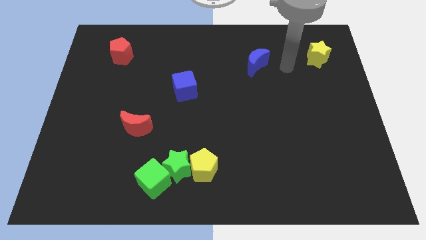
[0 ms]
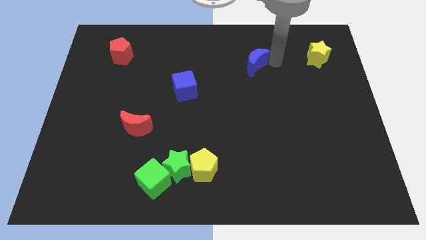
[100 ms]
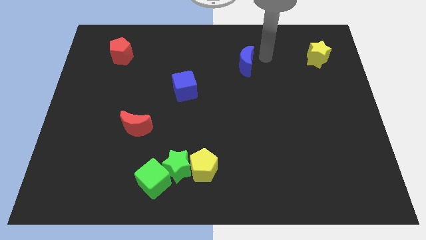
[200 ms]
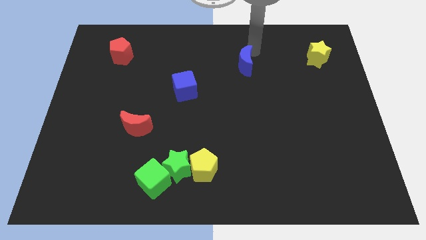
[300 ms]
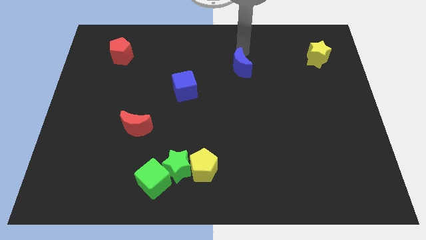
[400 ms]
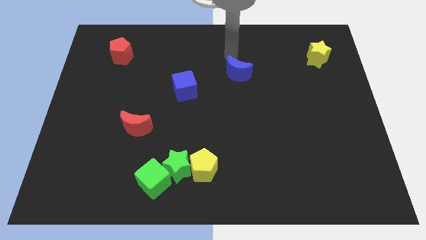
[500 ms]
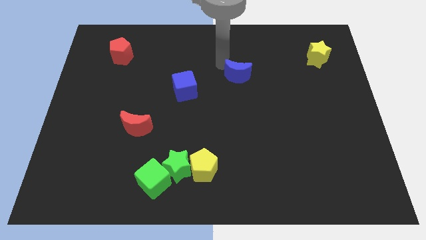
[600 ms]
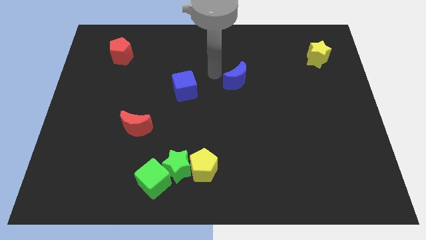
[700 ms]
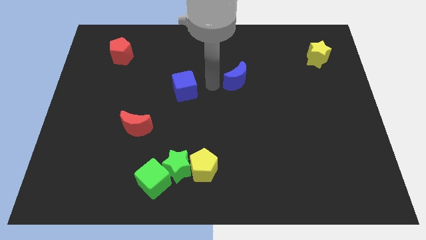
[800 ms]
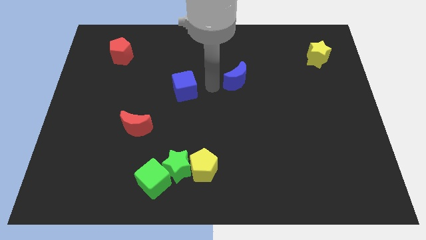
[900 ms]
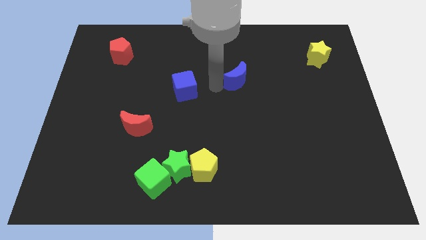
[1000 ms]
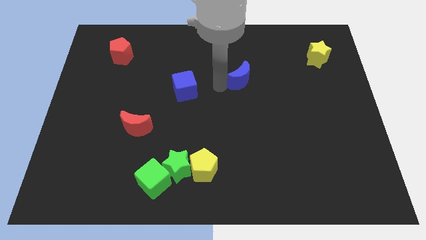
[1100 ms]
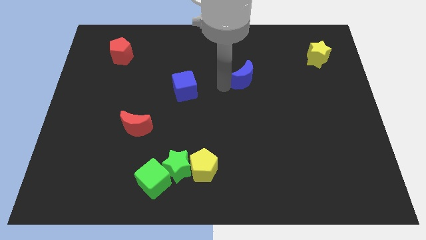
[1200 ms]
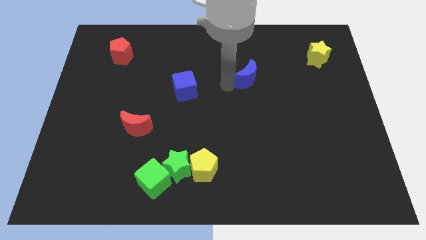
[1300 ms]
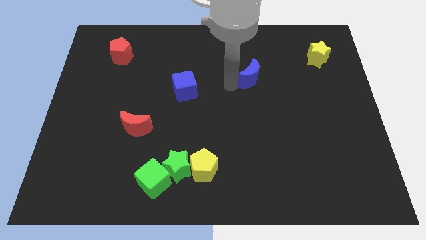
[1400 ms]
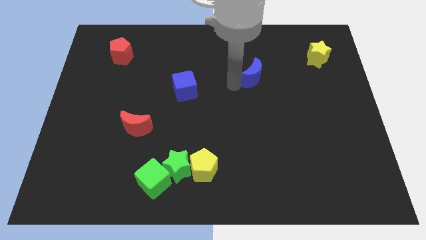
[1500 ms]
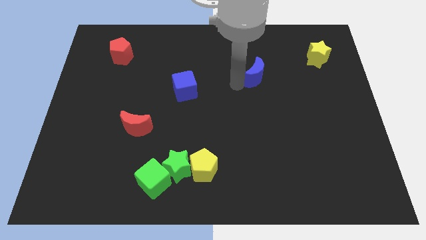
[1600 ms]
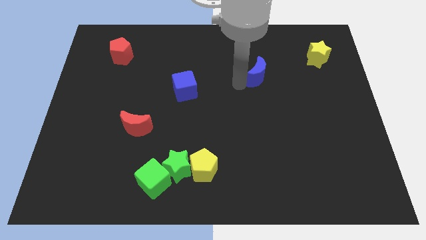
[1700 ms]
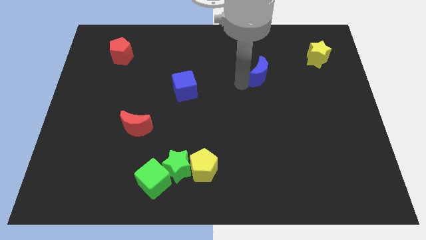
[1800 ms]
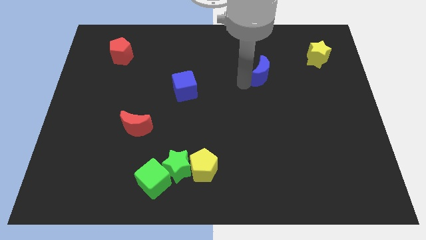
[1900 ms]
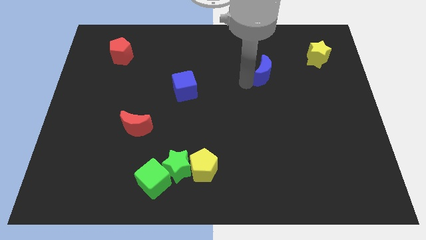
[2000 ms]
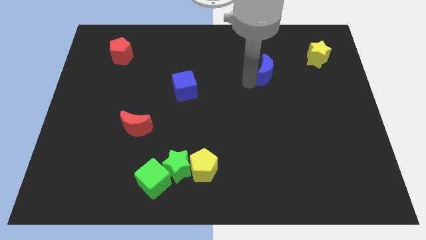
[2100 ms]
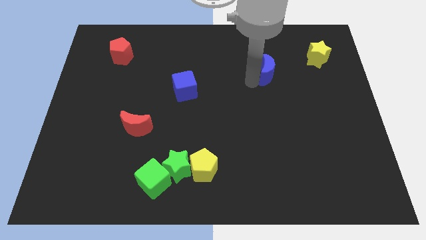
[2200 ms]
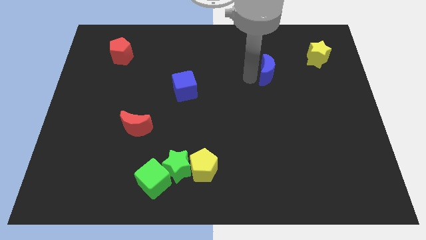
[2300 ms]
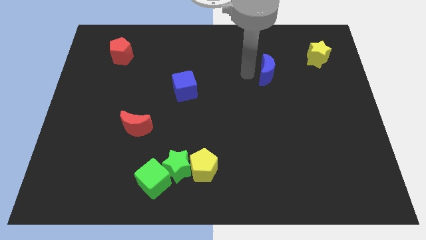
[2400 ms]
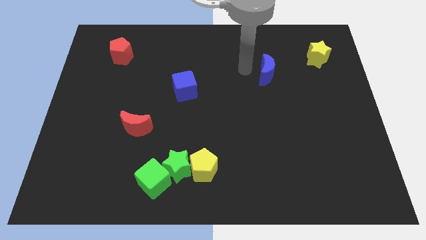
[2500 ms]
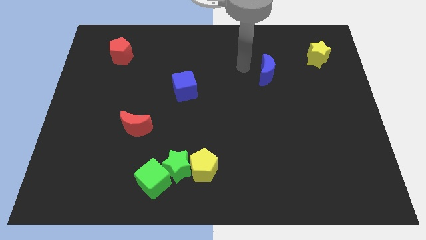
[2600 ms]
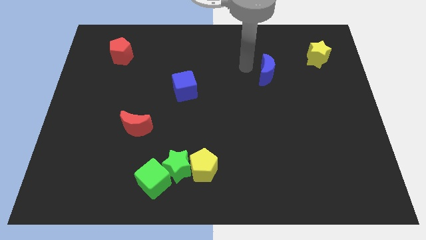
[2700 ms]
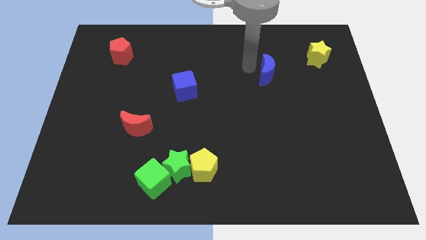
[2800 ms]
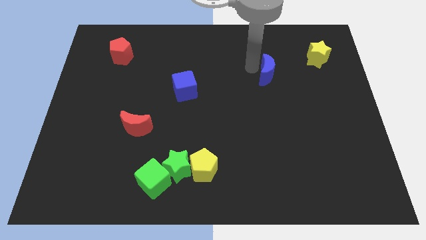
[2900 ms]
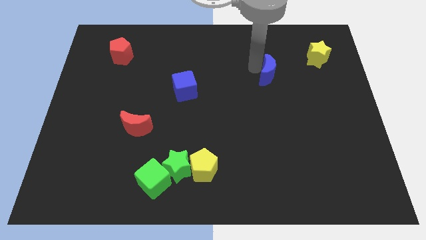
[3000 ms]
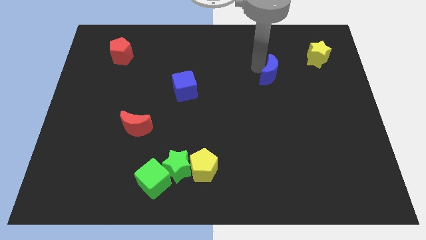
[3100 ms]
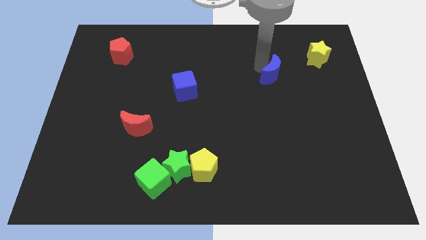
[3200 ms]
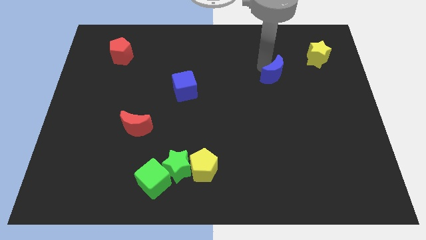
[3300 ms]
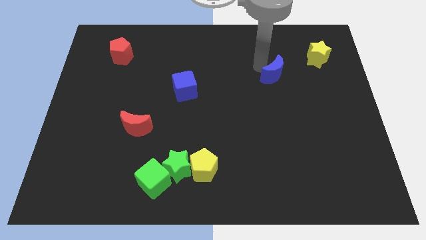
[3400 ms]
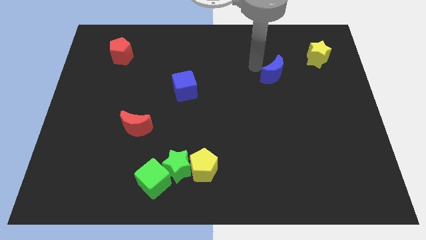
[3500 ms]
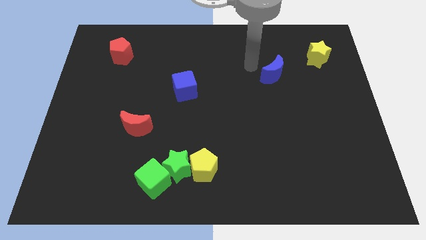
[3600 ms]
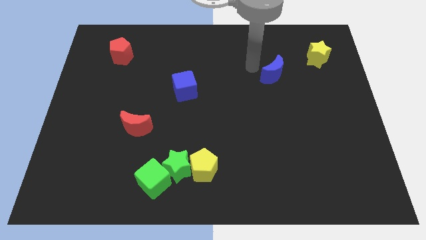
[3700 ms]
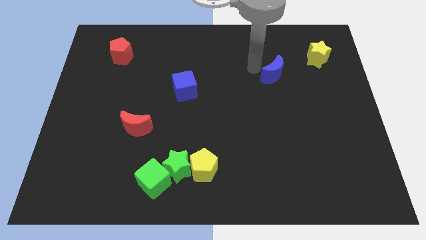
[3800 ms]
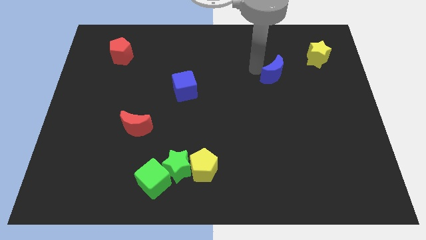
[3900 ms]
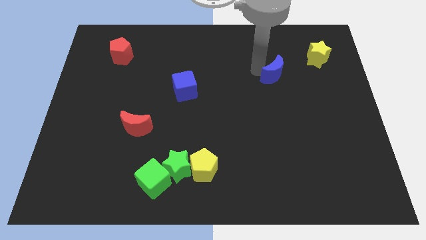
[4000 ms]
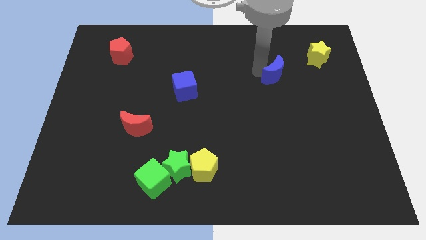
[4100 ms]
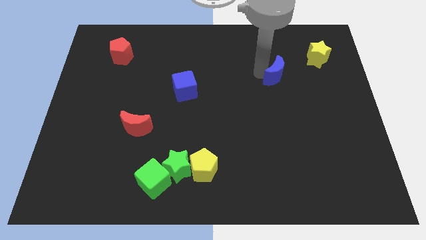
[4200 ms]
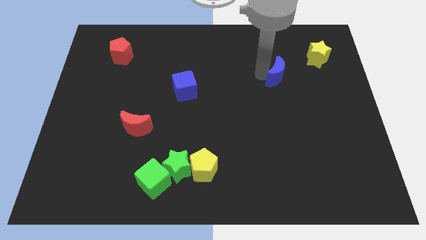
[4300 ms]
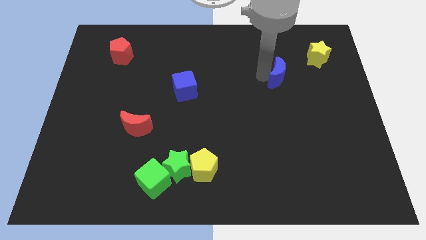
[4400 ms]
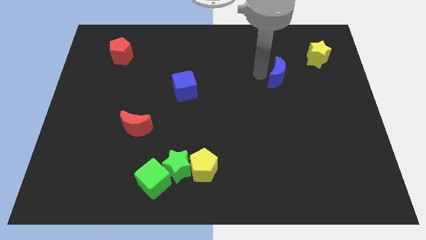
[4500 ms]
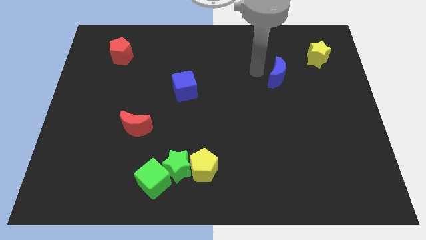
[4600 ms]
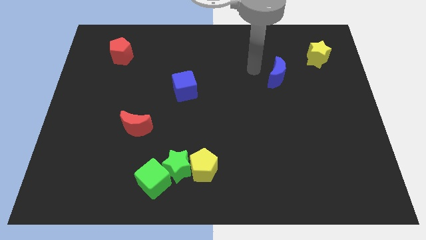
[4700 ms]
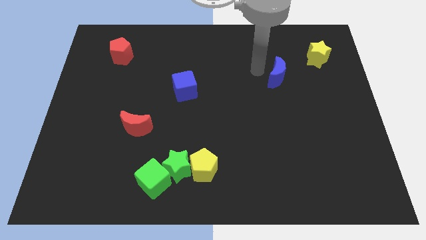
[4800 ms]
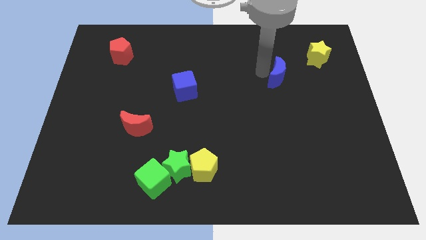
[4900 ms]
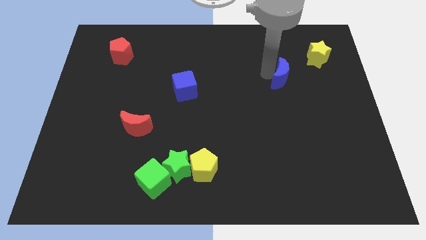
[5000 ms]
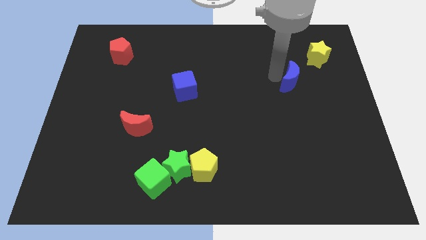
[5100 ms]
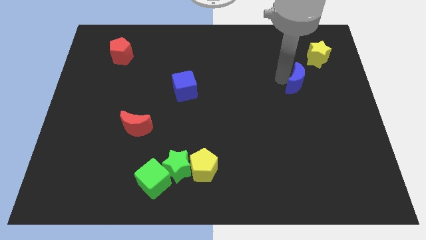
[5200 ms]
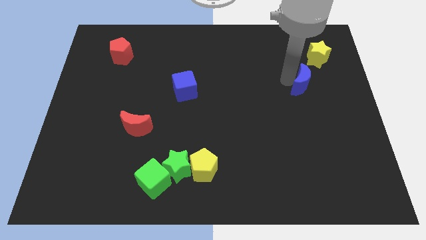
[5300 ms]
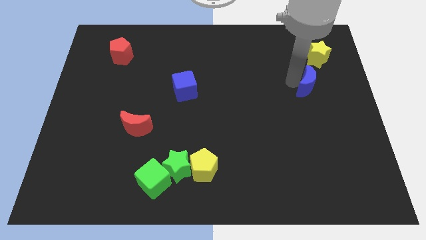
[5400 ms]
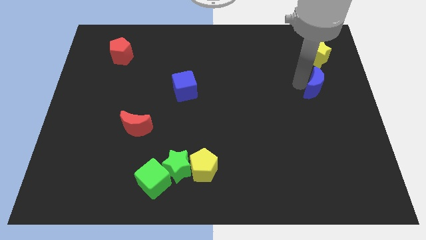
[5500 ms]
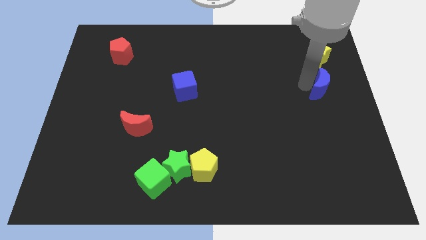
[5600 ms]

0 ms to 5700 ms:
move the blue moon to the center right

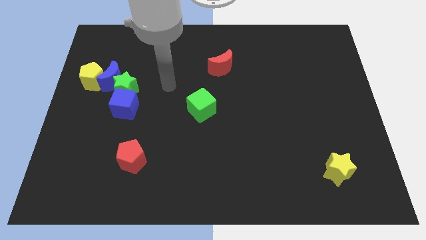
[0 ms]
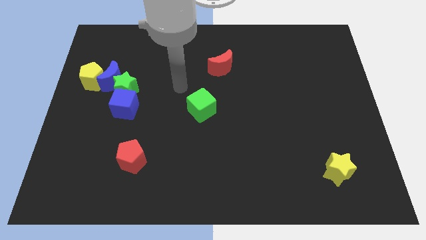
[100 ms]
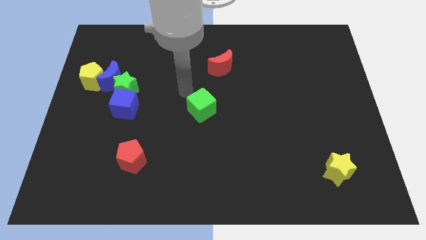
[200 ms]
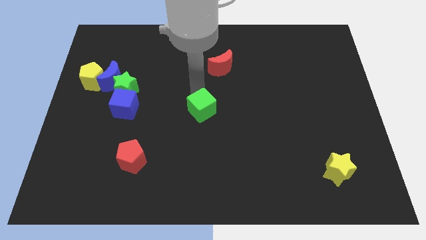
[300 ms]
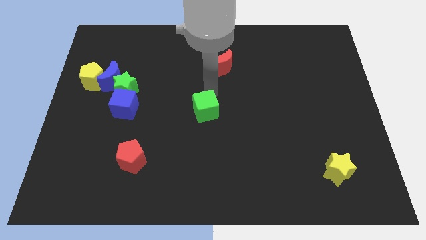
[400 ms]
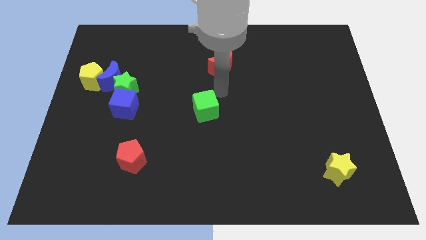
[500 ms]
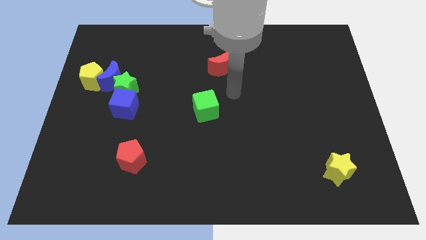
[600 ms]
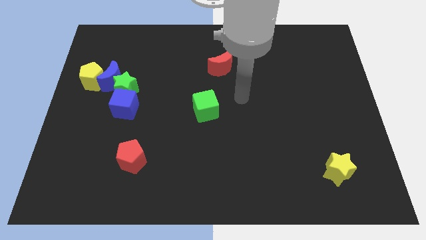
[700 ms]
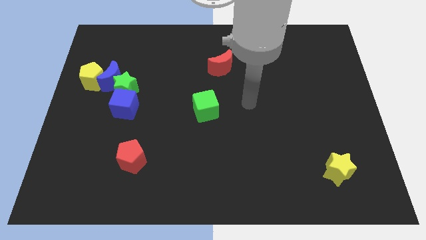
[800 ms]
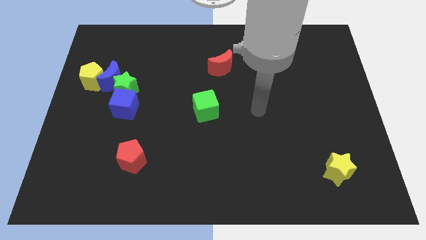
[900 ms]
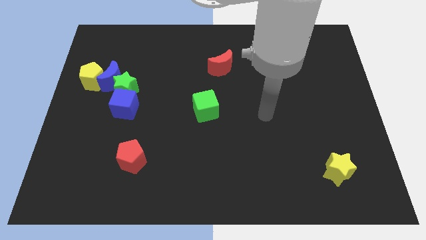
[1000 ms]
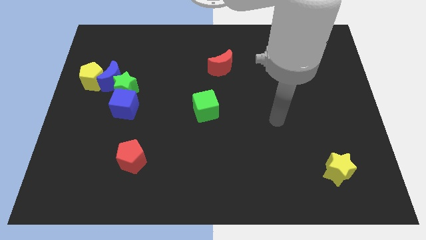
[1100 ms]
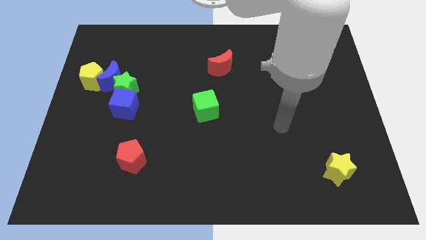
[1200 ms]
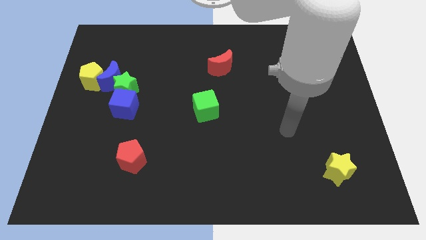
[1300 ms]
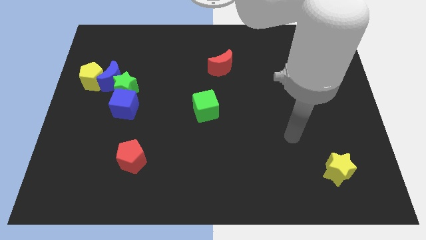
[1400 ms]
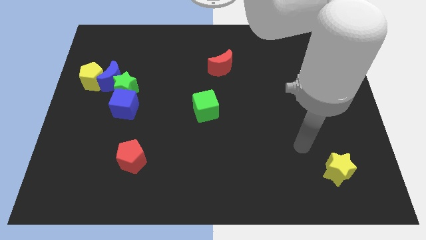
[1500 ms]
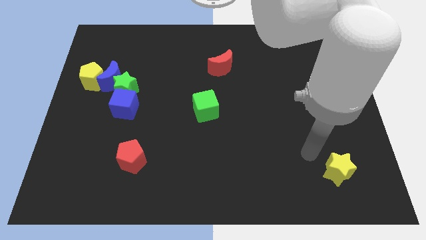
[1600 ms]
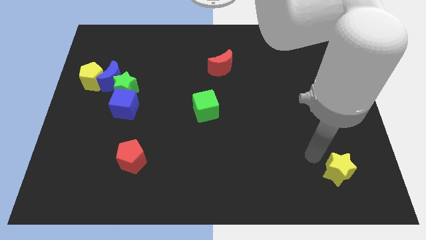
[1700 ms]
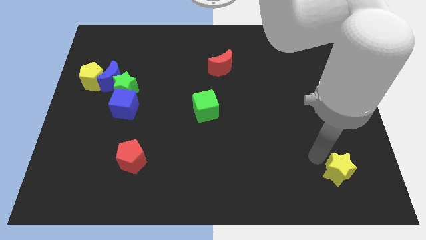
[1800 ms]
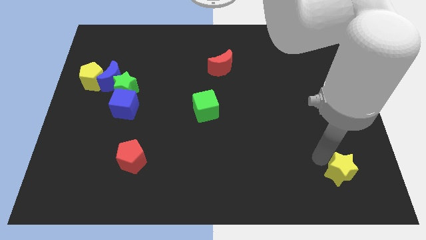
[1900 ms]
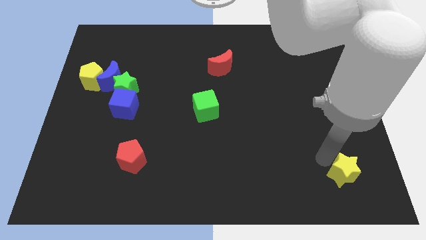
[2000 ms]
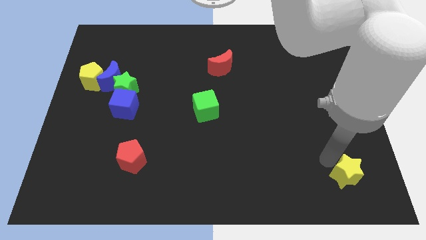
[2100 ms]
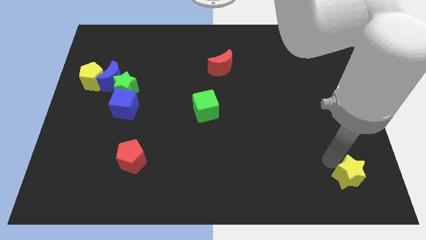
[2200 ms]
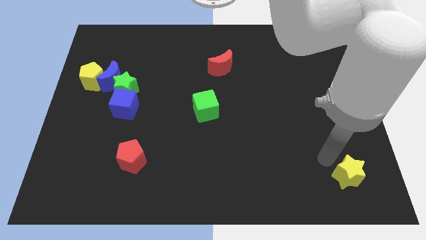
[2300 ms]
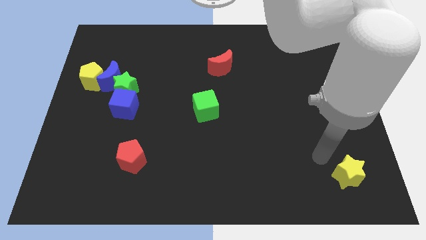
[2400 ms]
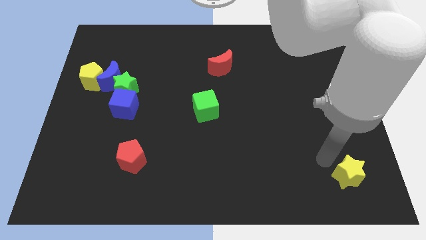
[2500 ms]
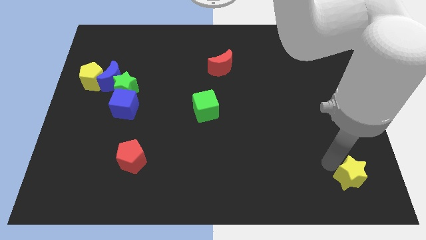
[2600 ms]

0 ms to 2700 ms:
slide the yellow star to the bottom right of the board
